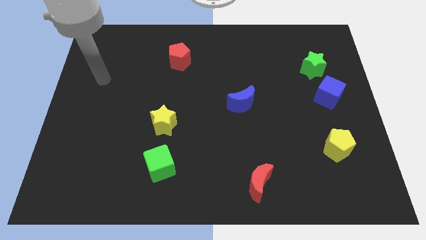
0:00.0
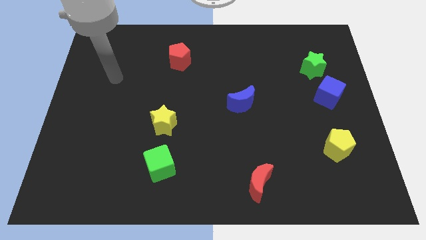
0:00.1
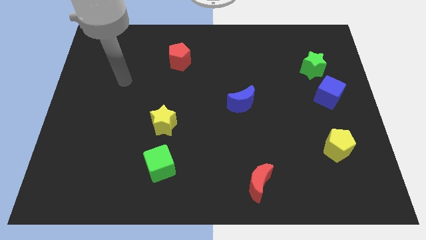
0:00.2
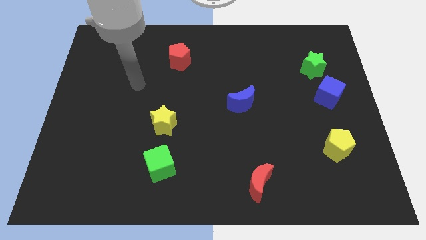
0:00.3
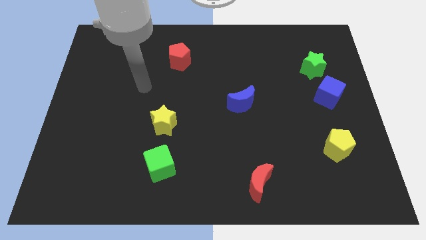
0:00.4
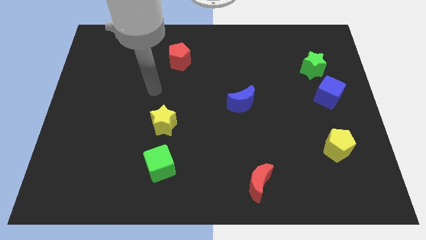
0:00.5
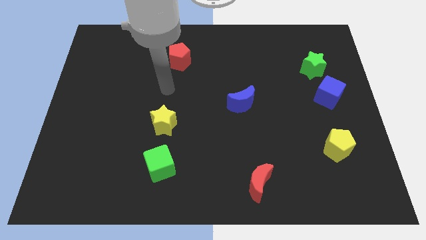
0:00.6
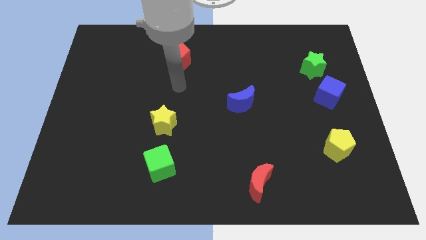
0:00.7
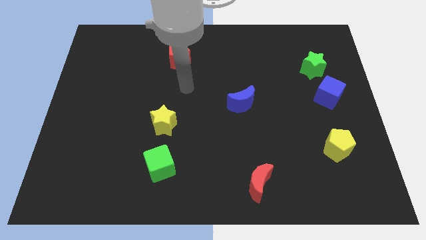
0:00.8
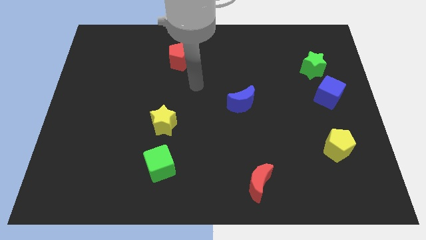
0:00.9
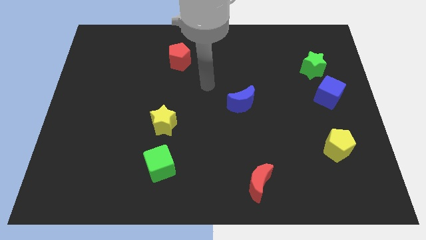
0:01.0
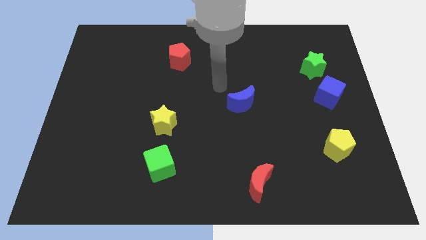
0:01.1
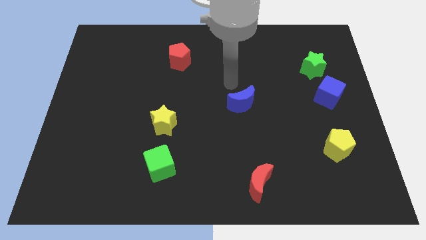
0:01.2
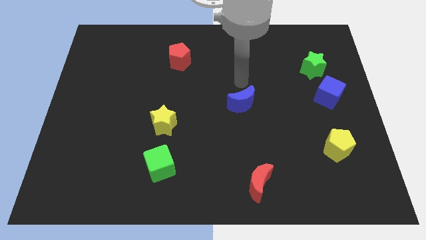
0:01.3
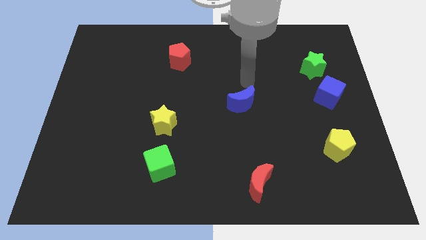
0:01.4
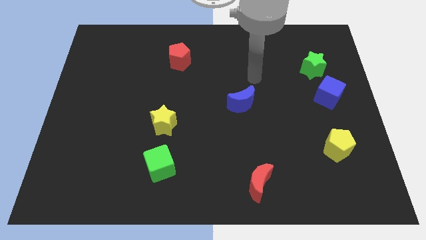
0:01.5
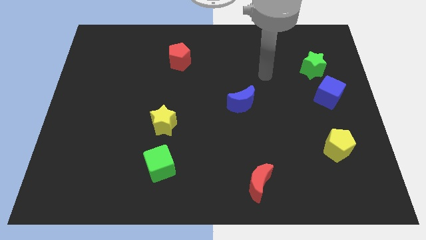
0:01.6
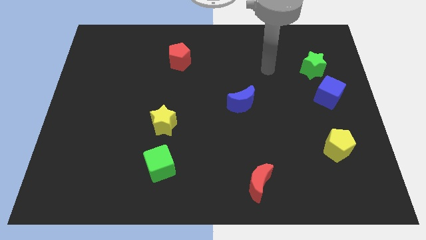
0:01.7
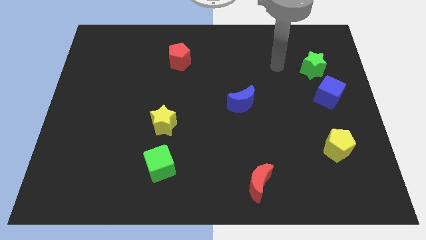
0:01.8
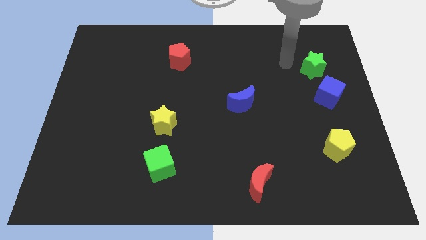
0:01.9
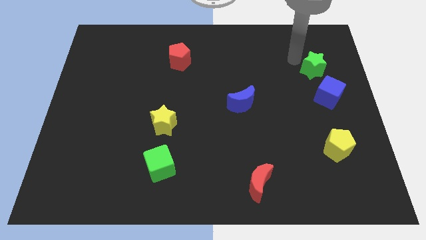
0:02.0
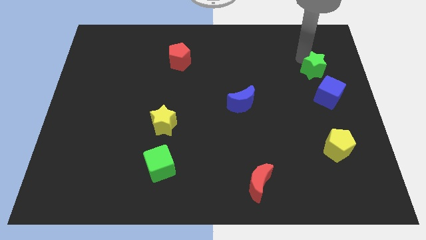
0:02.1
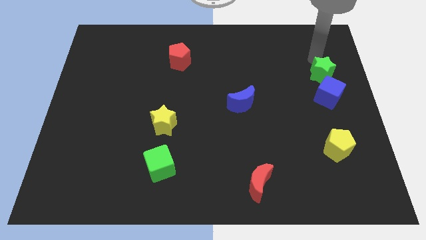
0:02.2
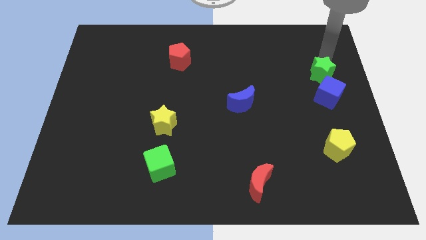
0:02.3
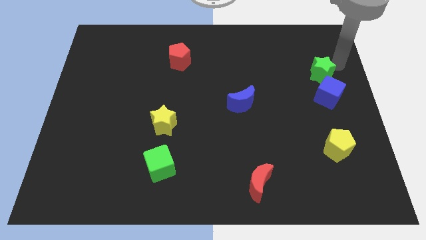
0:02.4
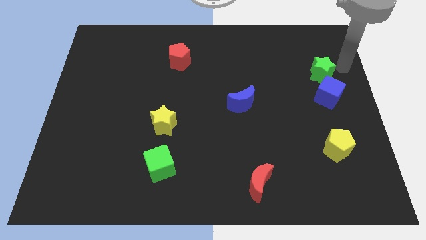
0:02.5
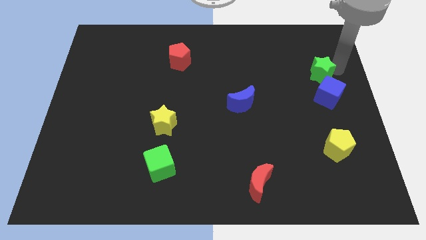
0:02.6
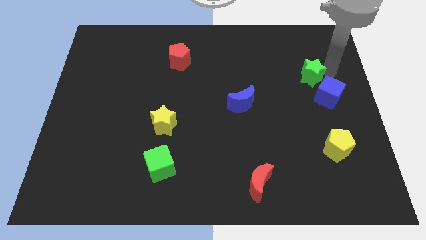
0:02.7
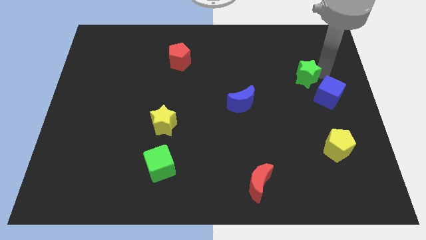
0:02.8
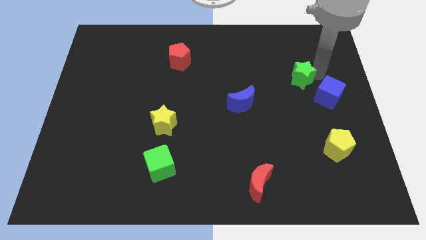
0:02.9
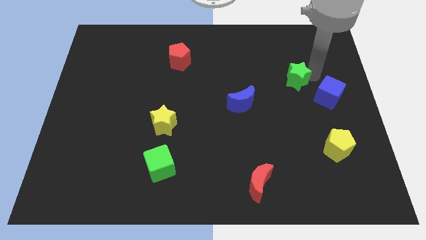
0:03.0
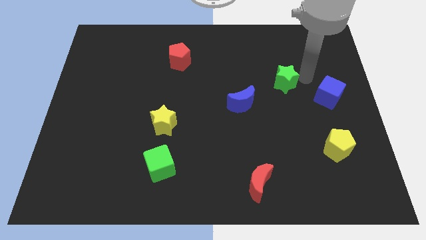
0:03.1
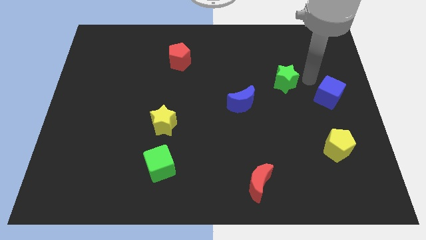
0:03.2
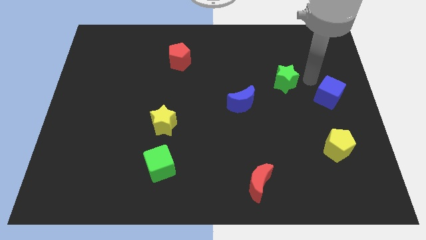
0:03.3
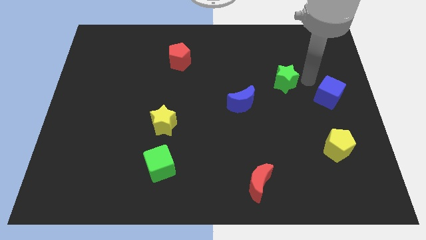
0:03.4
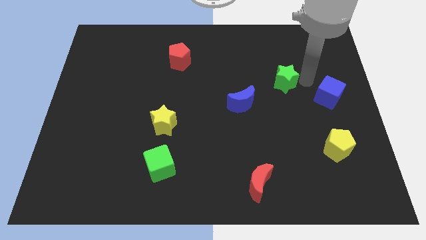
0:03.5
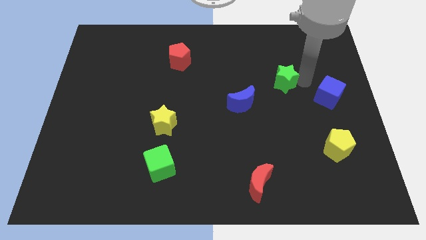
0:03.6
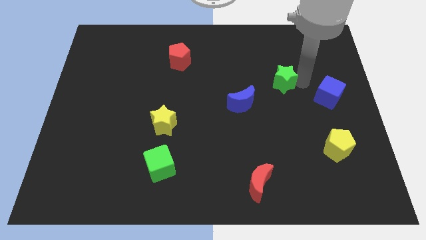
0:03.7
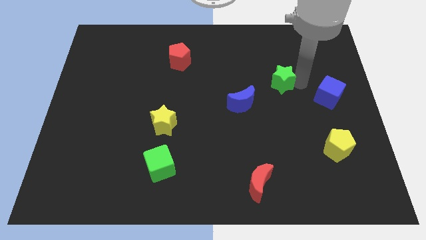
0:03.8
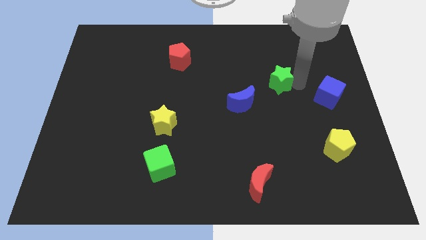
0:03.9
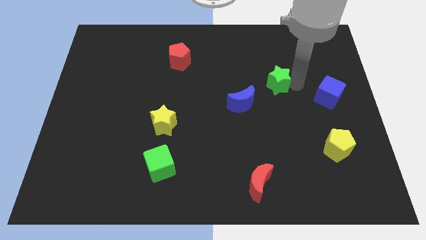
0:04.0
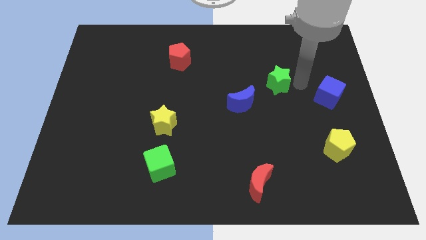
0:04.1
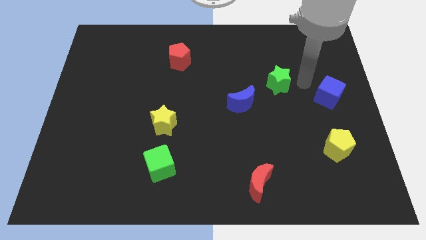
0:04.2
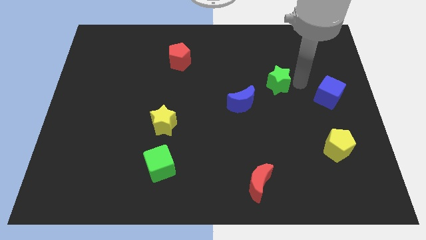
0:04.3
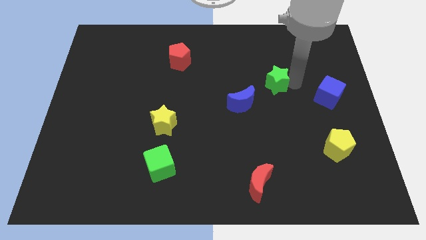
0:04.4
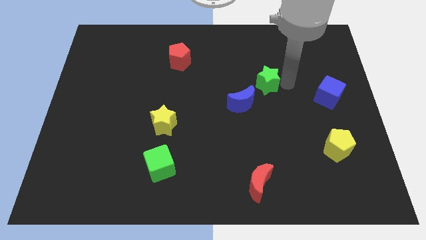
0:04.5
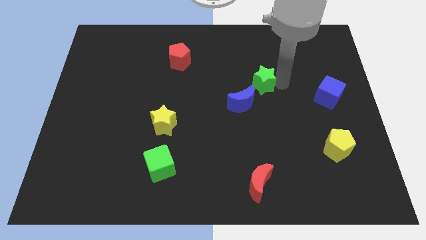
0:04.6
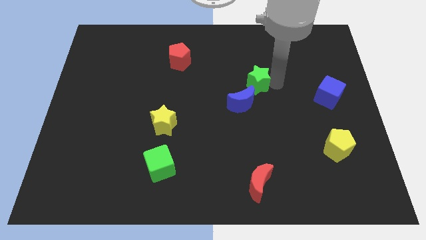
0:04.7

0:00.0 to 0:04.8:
slide the green star to the center

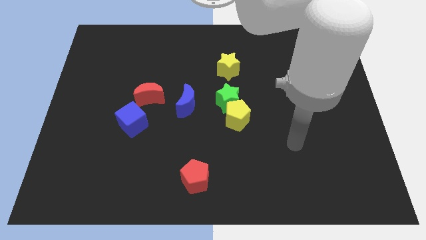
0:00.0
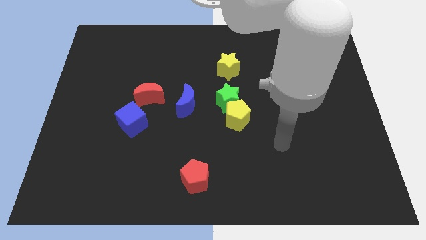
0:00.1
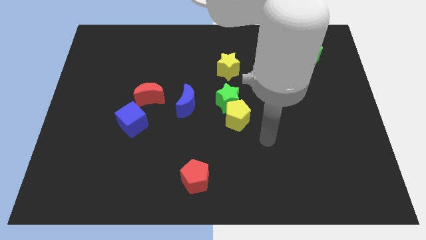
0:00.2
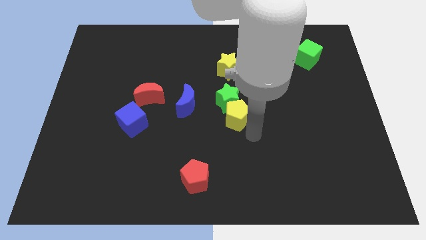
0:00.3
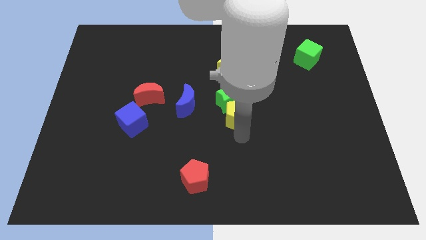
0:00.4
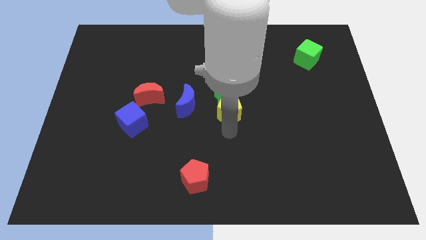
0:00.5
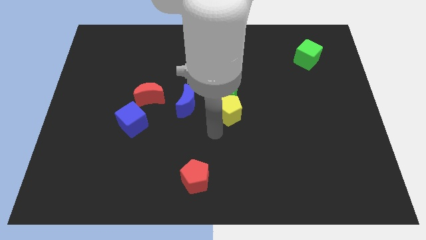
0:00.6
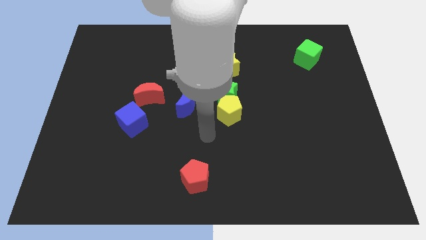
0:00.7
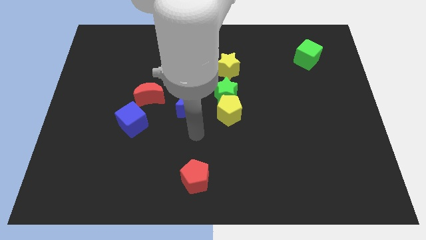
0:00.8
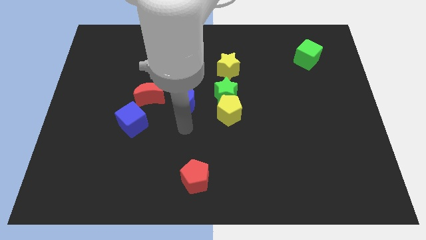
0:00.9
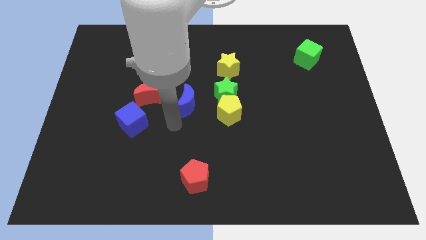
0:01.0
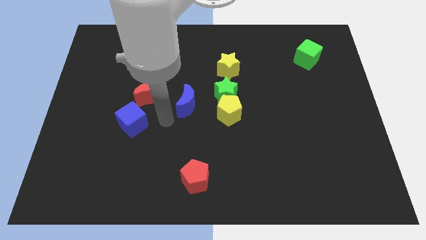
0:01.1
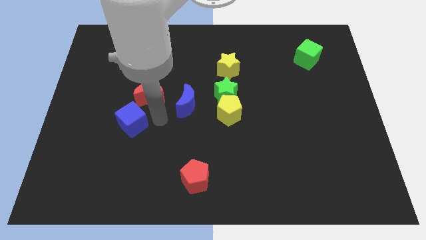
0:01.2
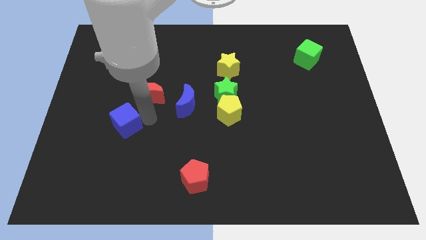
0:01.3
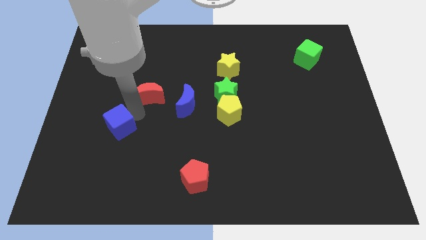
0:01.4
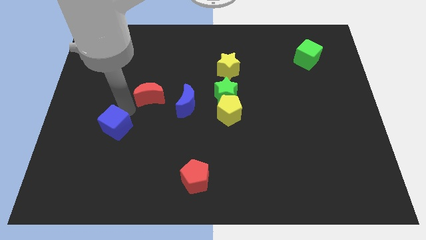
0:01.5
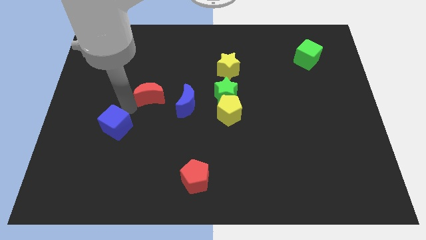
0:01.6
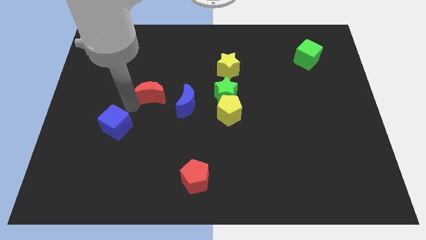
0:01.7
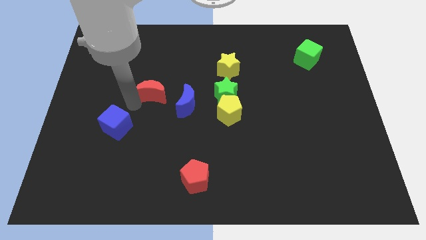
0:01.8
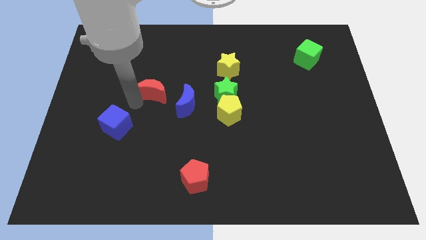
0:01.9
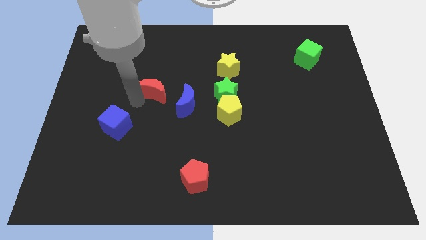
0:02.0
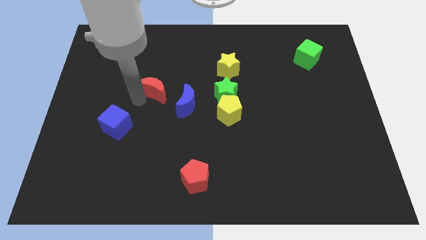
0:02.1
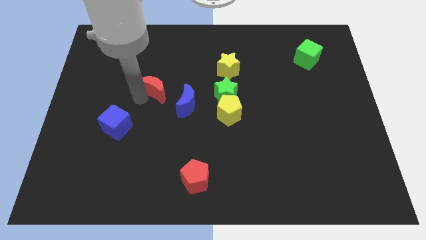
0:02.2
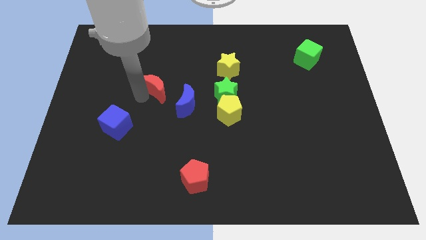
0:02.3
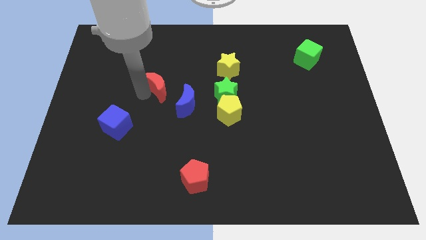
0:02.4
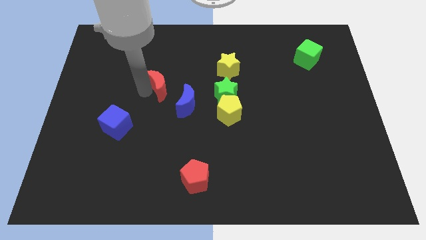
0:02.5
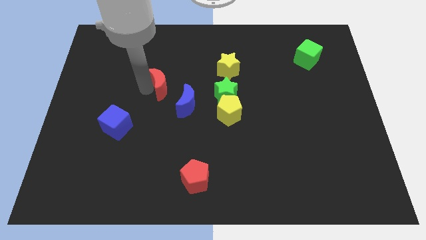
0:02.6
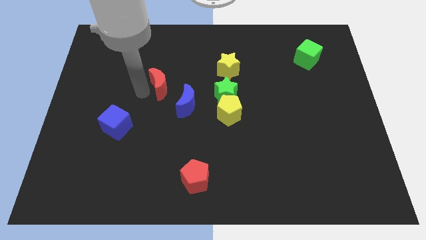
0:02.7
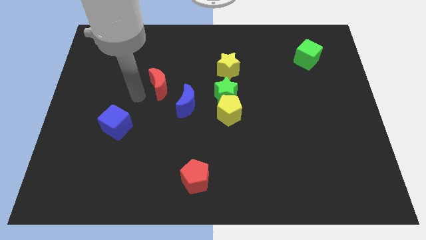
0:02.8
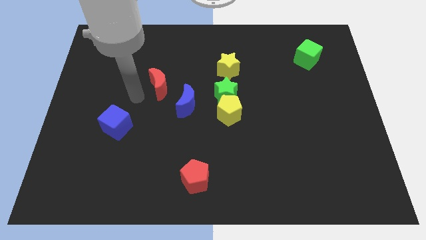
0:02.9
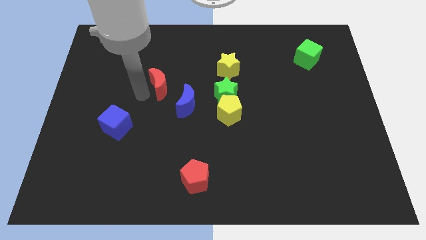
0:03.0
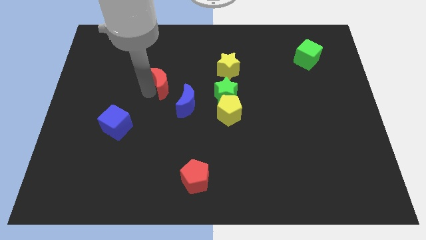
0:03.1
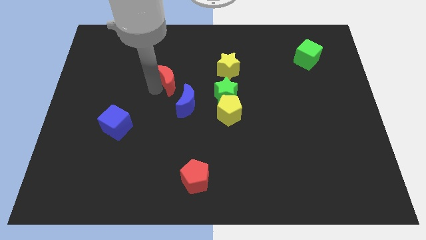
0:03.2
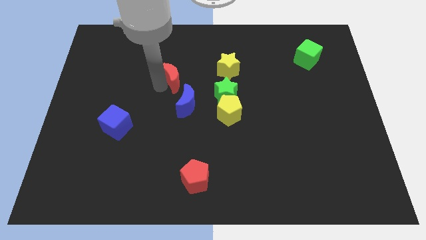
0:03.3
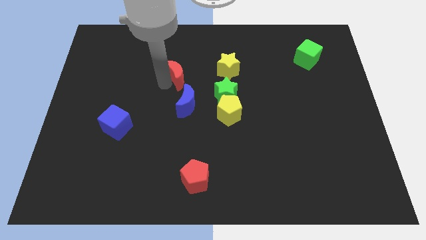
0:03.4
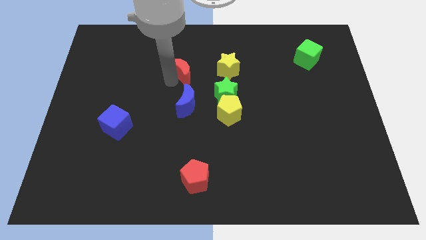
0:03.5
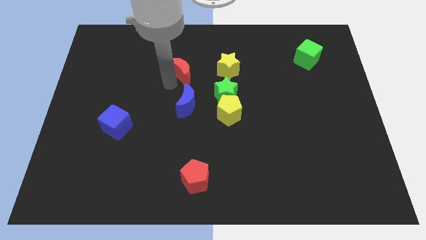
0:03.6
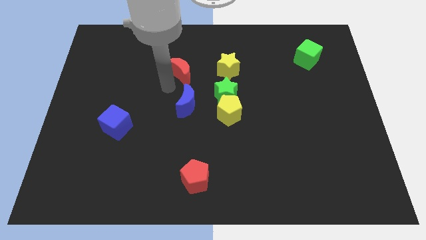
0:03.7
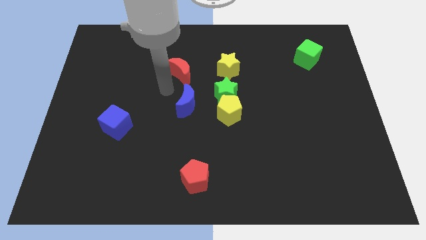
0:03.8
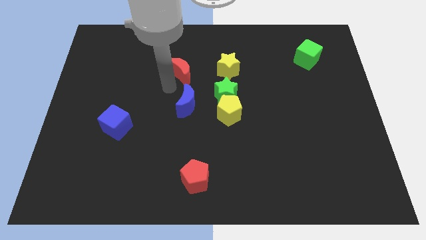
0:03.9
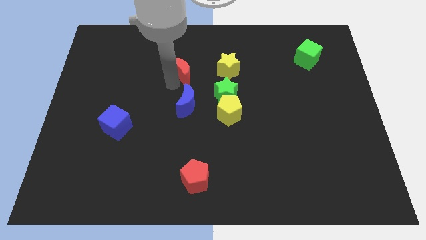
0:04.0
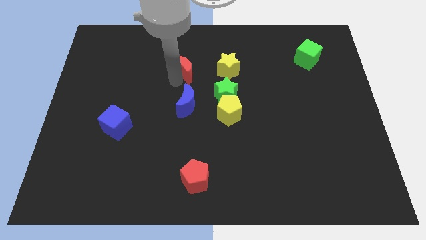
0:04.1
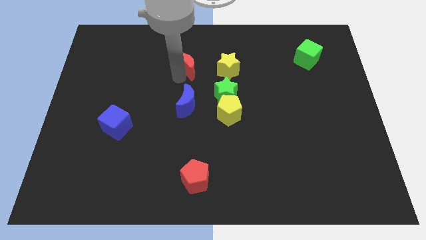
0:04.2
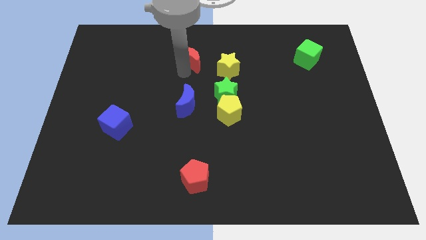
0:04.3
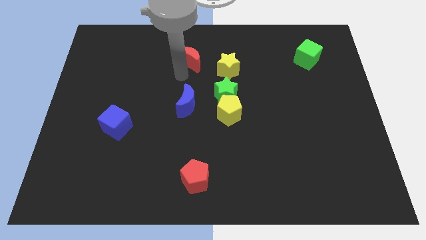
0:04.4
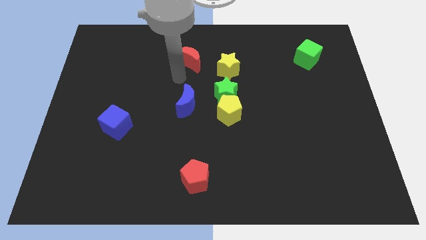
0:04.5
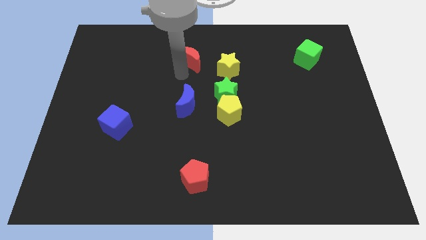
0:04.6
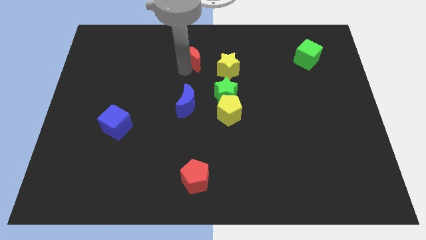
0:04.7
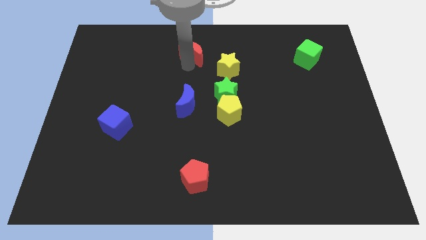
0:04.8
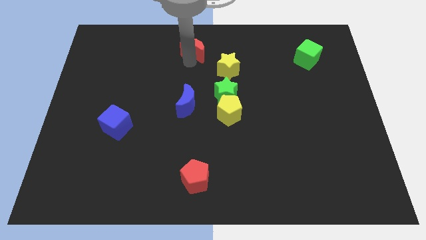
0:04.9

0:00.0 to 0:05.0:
slide the red moon to the towards your base
